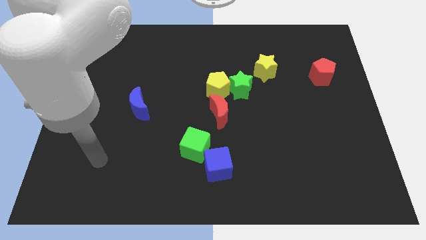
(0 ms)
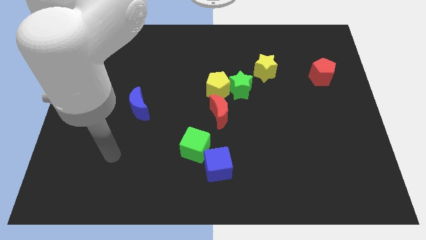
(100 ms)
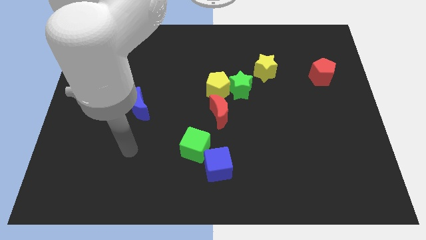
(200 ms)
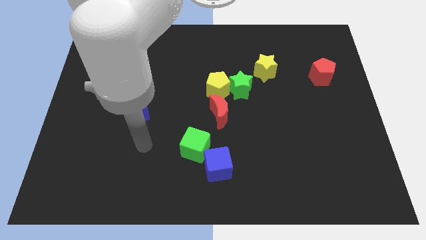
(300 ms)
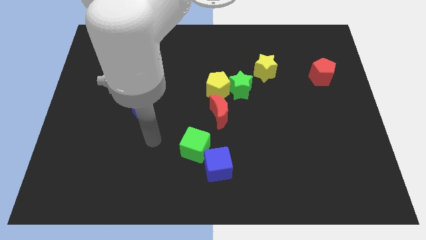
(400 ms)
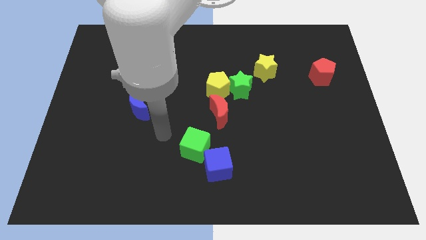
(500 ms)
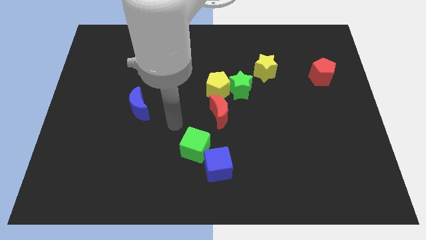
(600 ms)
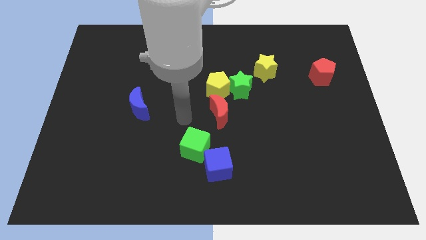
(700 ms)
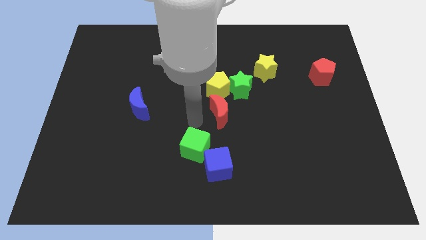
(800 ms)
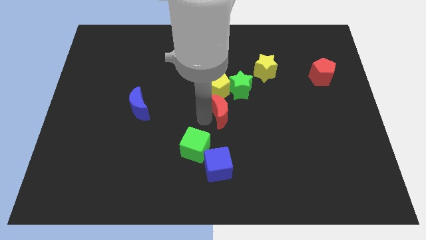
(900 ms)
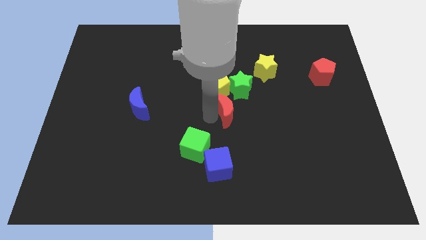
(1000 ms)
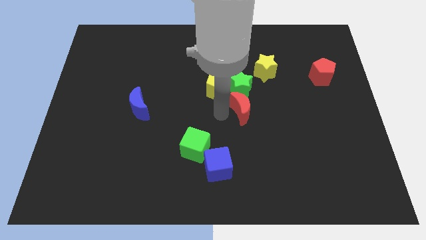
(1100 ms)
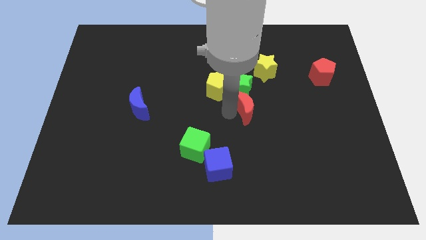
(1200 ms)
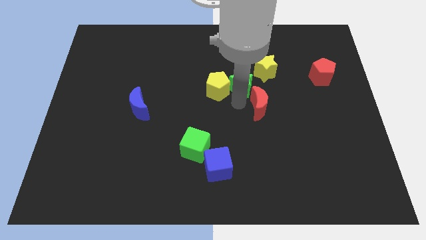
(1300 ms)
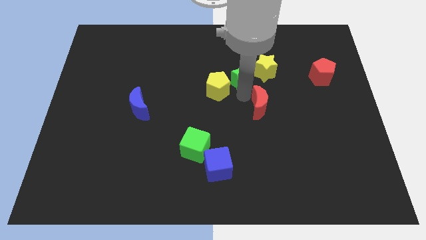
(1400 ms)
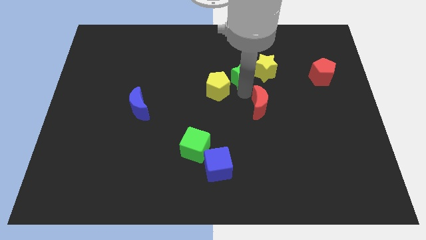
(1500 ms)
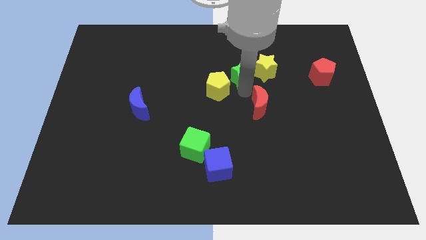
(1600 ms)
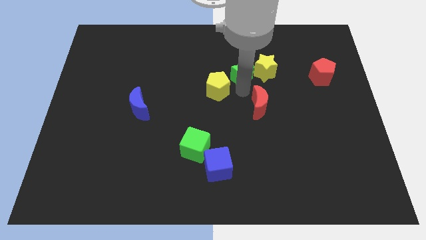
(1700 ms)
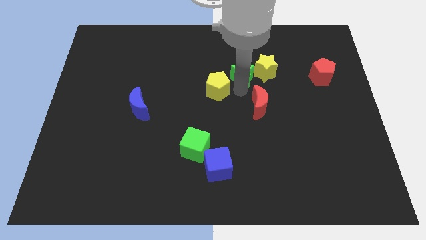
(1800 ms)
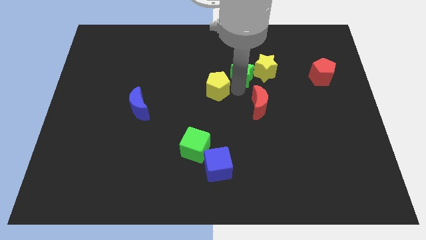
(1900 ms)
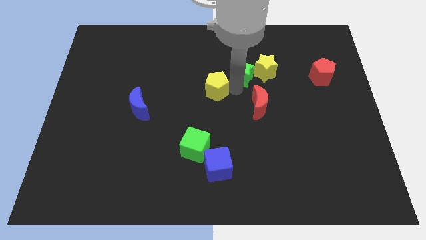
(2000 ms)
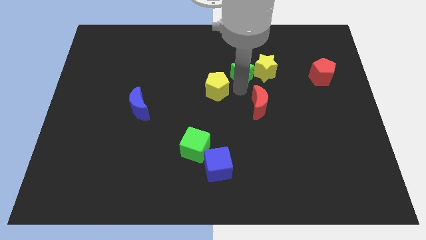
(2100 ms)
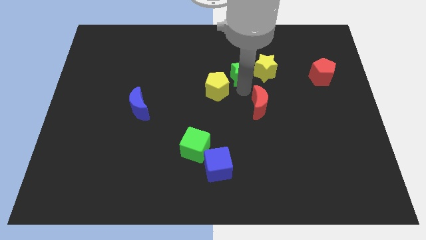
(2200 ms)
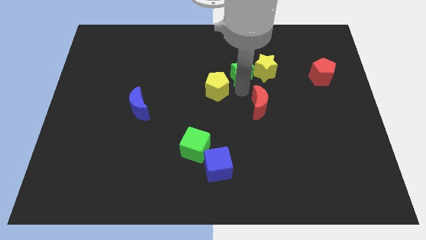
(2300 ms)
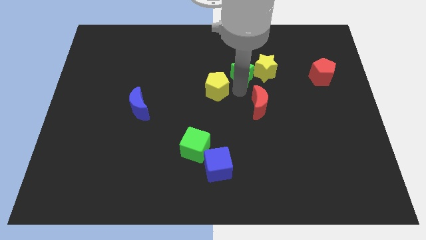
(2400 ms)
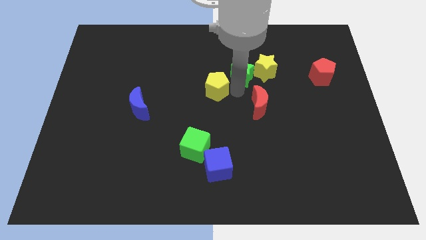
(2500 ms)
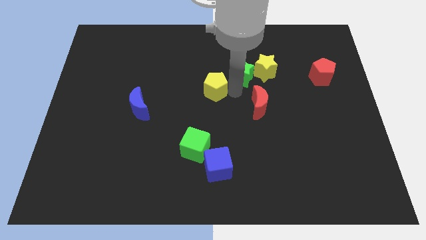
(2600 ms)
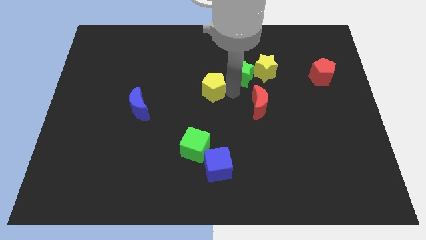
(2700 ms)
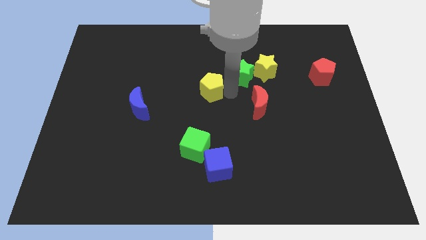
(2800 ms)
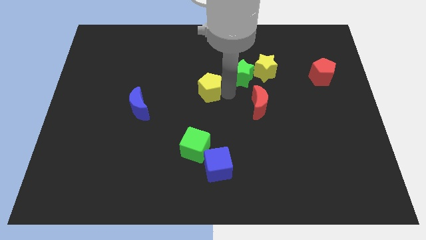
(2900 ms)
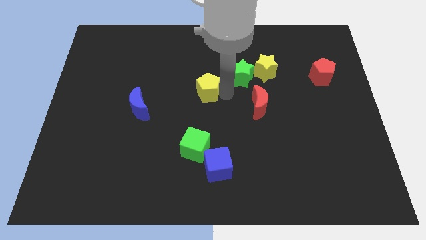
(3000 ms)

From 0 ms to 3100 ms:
move the yellow pentagon away from the green star and red moon

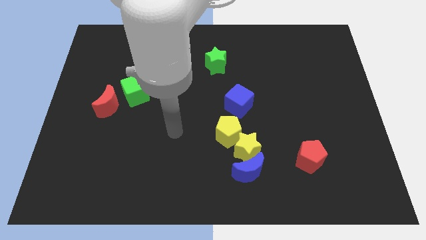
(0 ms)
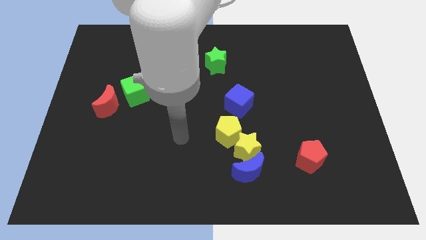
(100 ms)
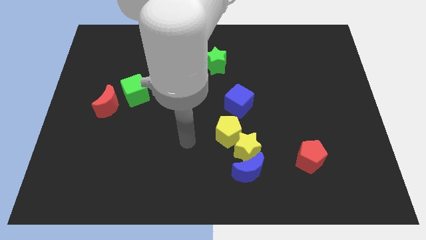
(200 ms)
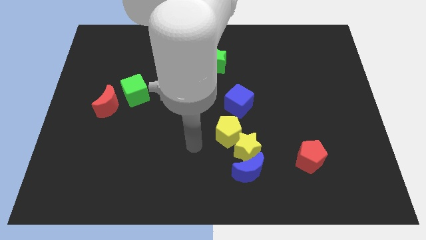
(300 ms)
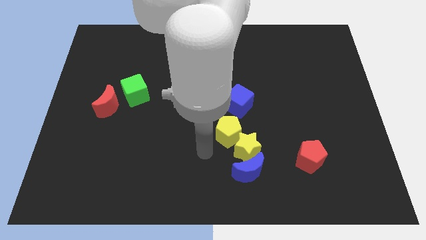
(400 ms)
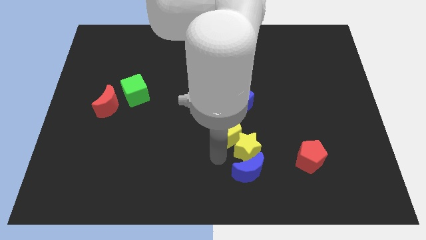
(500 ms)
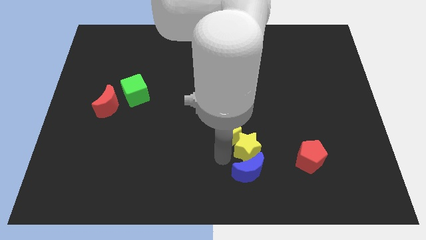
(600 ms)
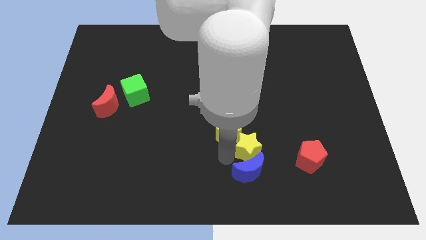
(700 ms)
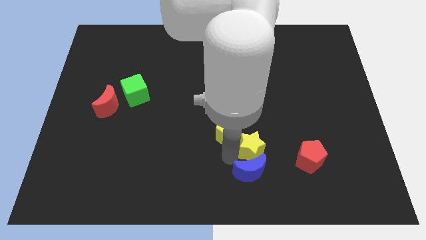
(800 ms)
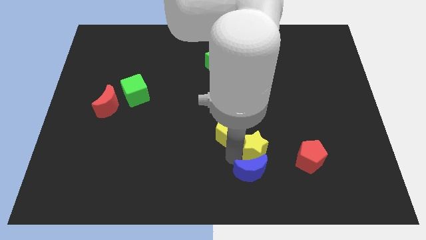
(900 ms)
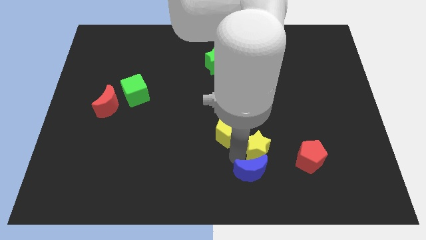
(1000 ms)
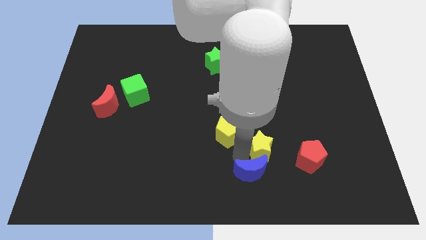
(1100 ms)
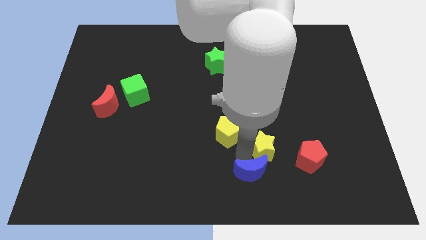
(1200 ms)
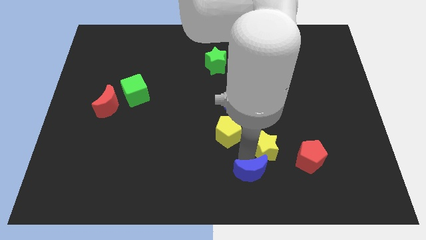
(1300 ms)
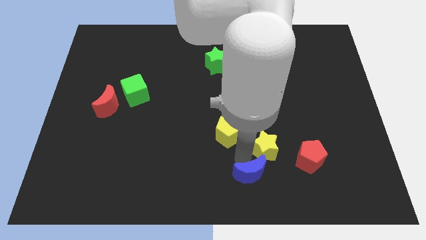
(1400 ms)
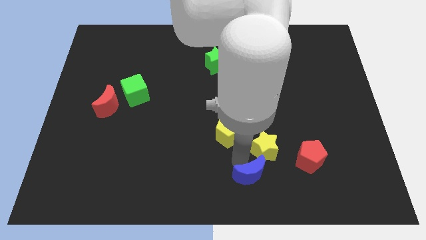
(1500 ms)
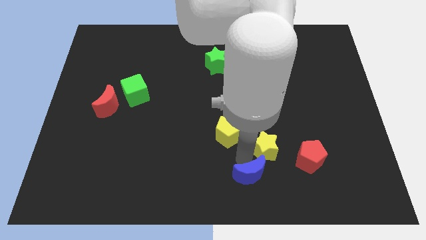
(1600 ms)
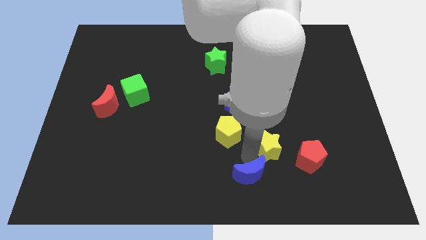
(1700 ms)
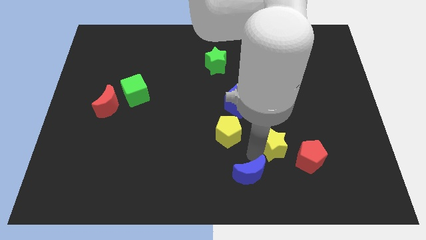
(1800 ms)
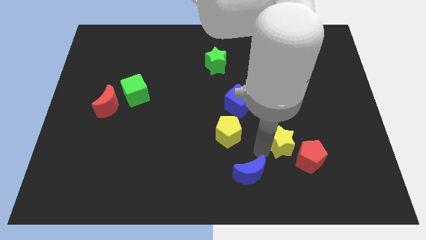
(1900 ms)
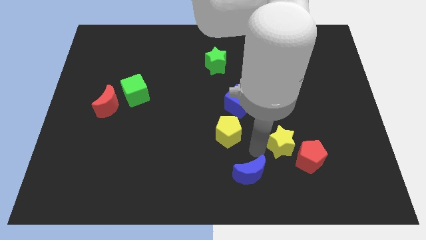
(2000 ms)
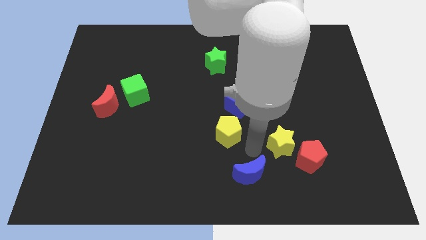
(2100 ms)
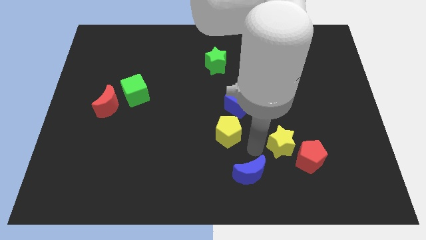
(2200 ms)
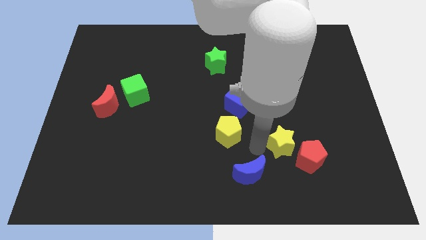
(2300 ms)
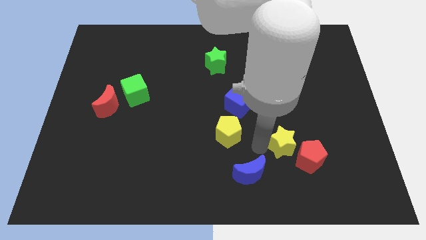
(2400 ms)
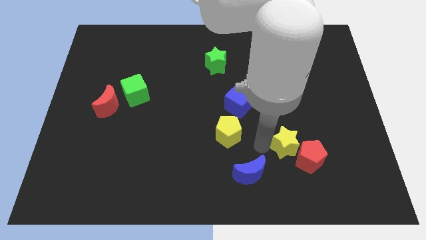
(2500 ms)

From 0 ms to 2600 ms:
pull the yellow star apart from the blue moon and yellow pentagon

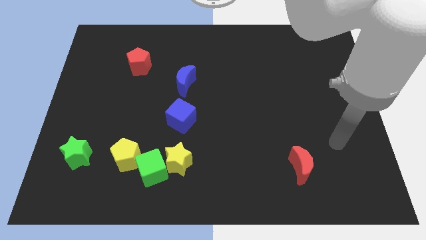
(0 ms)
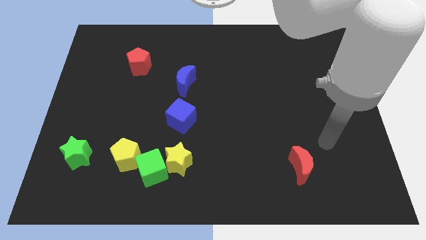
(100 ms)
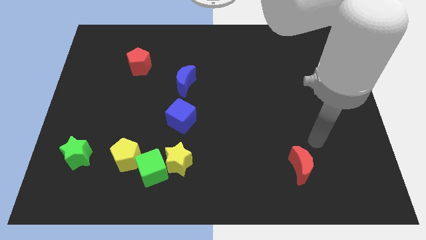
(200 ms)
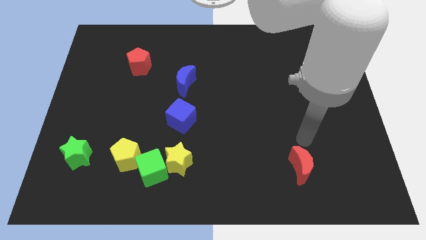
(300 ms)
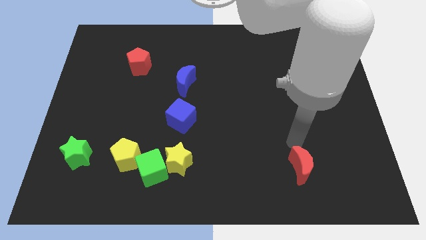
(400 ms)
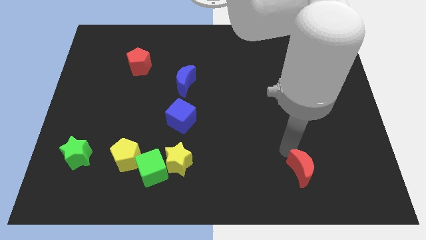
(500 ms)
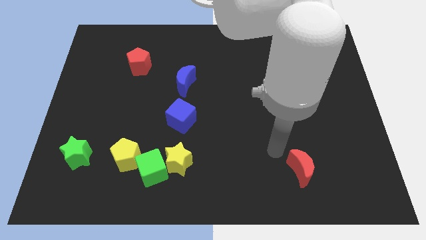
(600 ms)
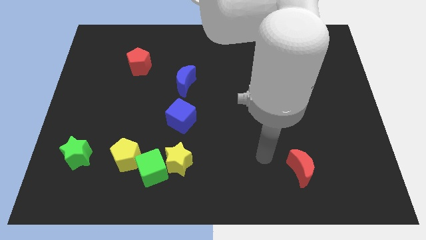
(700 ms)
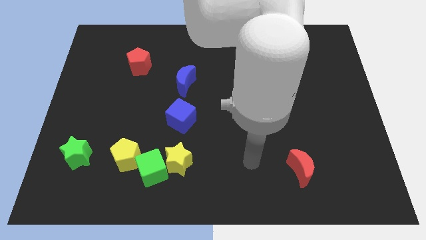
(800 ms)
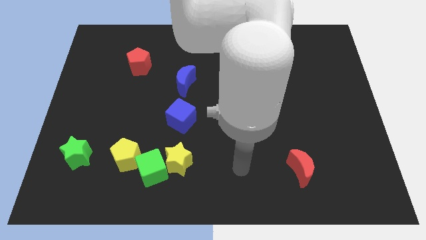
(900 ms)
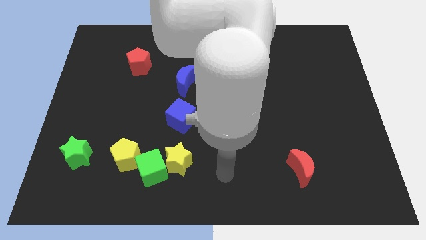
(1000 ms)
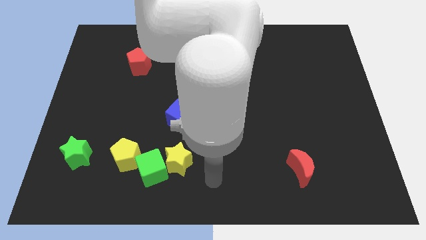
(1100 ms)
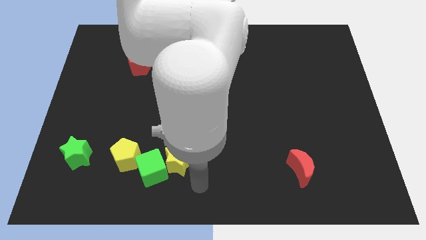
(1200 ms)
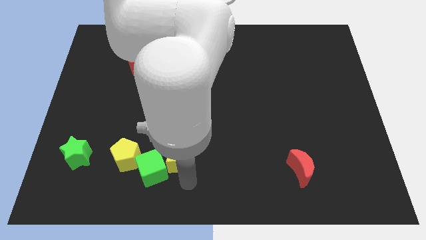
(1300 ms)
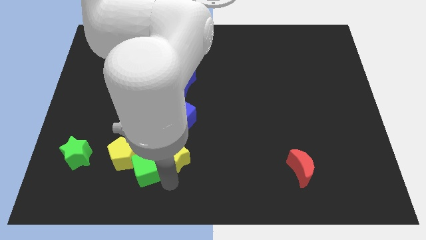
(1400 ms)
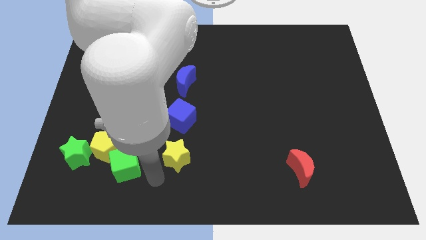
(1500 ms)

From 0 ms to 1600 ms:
pull the yellow star apart from the green cube

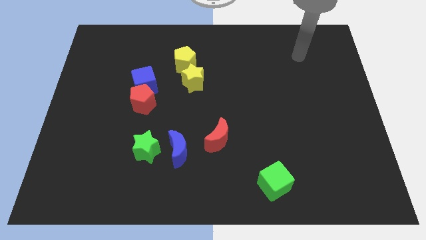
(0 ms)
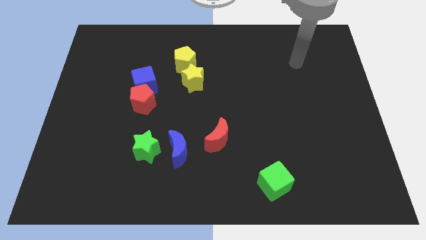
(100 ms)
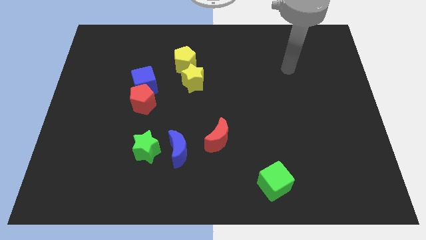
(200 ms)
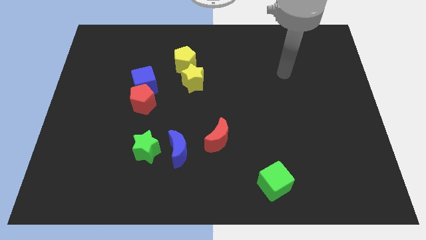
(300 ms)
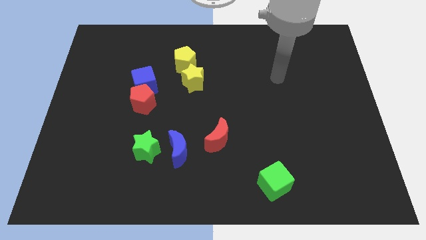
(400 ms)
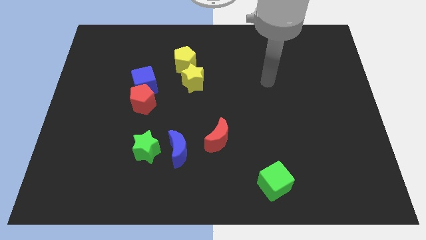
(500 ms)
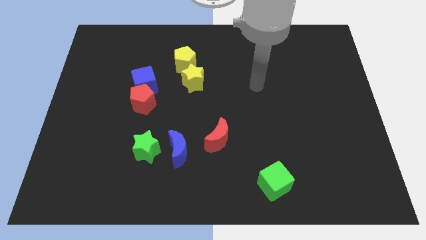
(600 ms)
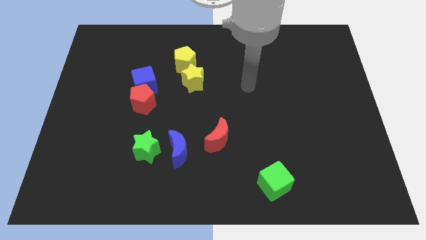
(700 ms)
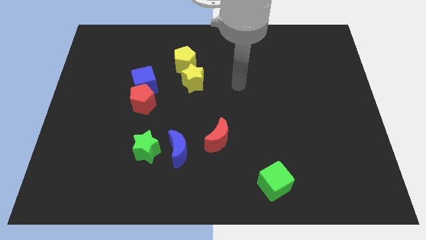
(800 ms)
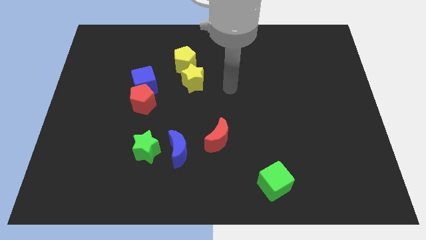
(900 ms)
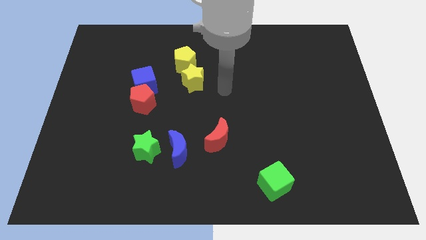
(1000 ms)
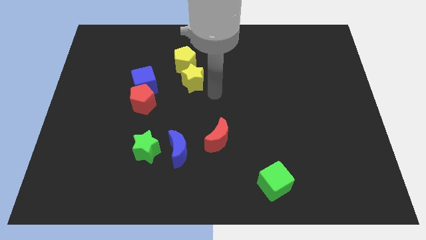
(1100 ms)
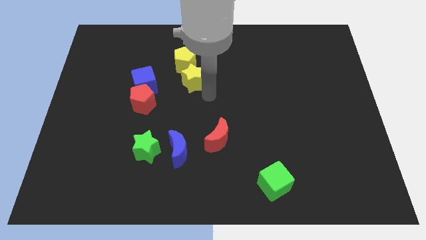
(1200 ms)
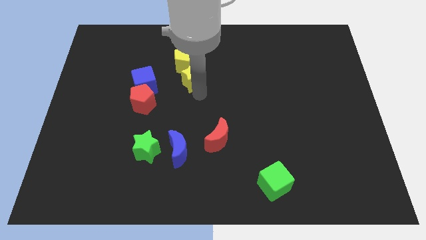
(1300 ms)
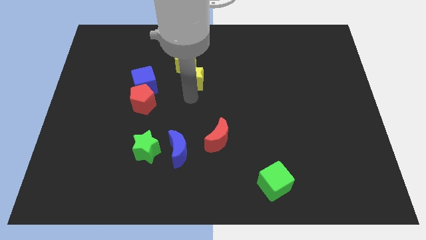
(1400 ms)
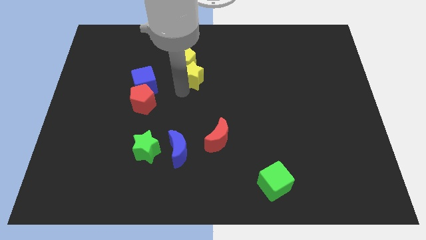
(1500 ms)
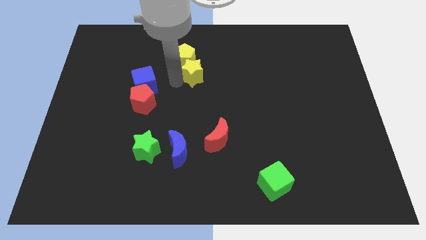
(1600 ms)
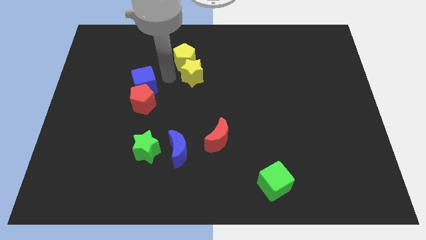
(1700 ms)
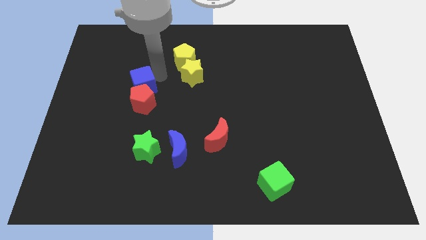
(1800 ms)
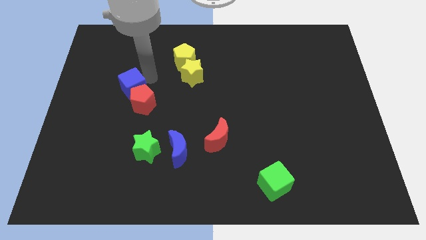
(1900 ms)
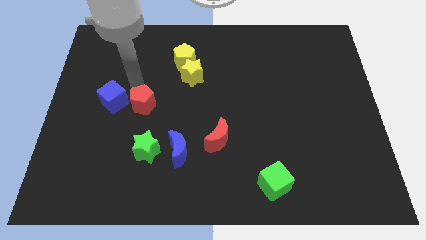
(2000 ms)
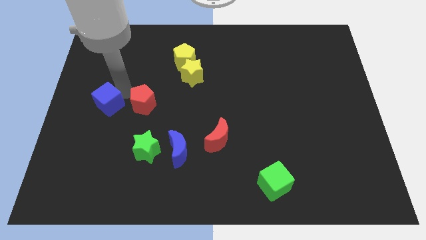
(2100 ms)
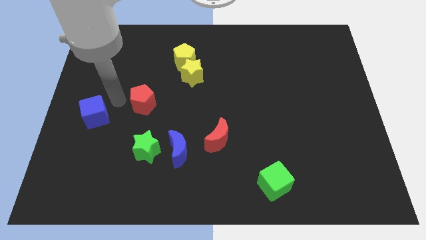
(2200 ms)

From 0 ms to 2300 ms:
separate the red pentagon from the blue cube
